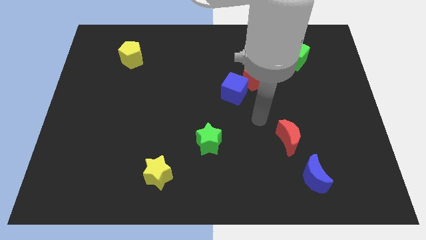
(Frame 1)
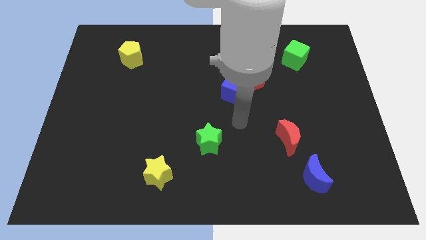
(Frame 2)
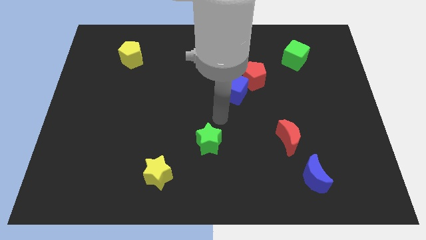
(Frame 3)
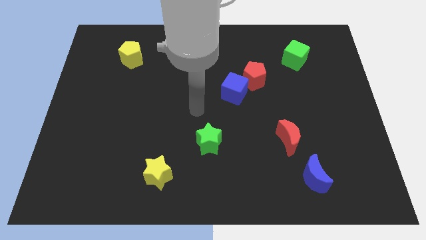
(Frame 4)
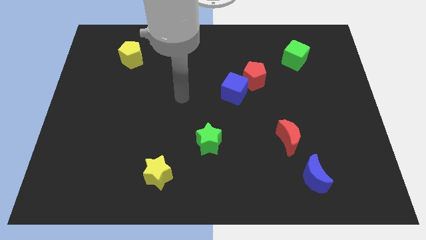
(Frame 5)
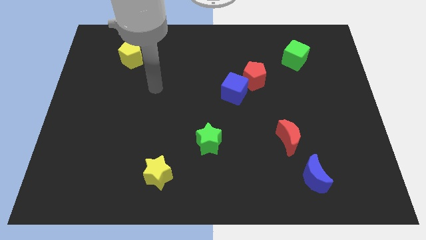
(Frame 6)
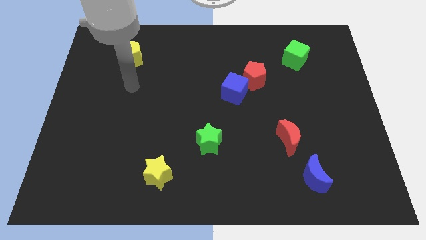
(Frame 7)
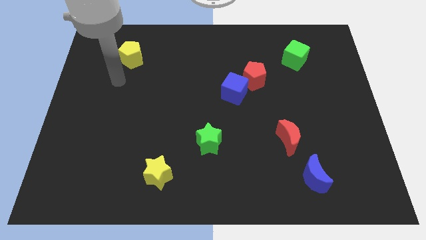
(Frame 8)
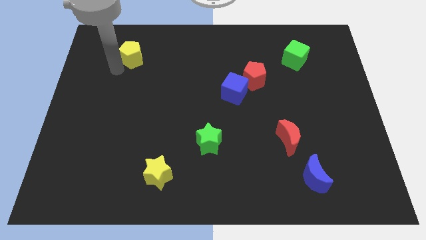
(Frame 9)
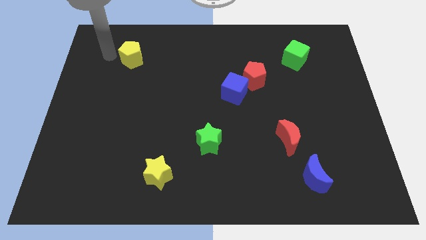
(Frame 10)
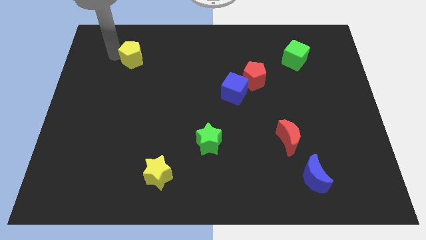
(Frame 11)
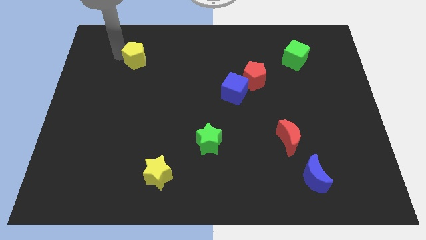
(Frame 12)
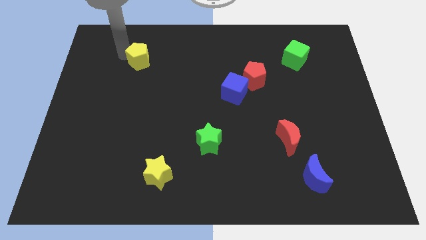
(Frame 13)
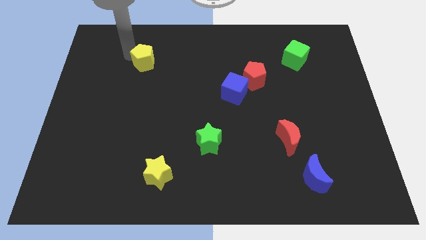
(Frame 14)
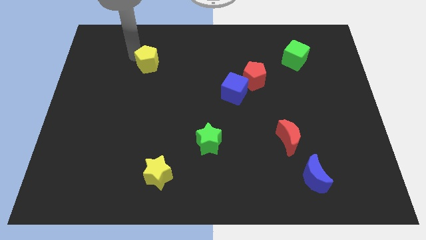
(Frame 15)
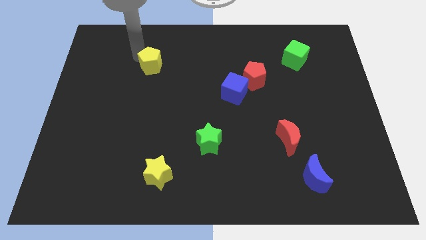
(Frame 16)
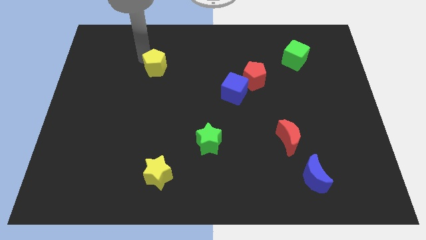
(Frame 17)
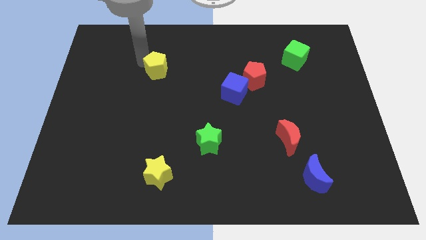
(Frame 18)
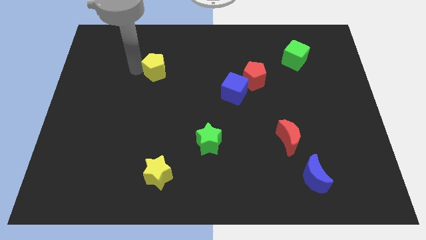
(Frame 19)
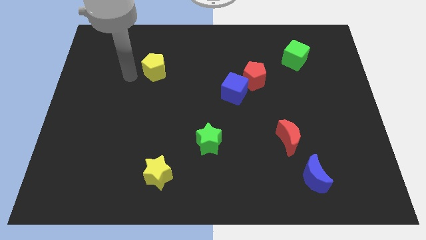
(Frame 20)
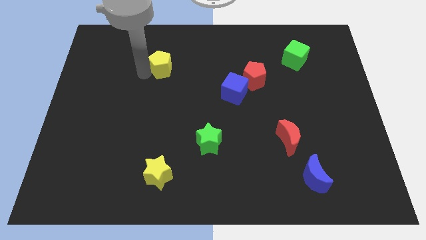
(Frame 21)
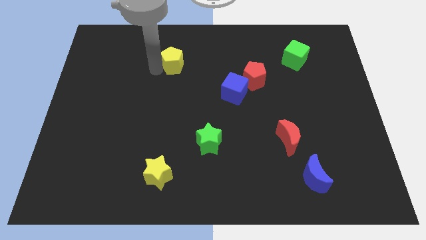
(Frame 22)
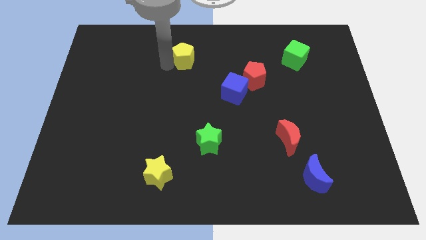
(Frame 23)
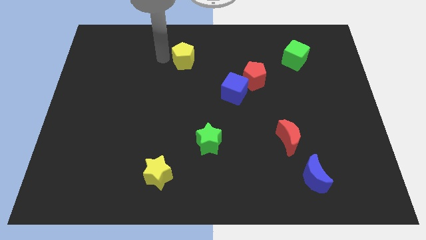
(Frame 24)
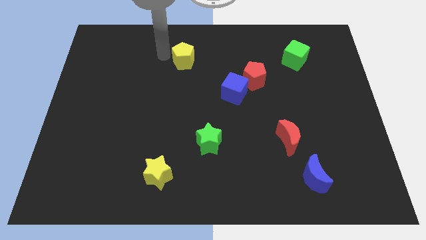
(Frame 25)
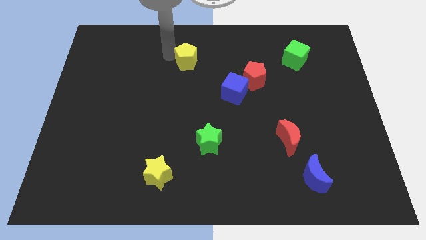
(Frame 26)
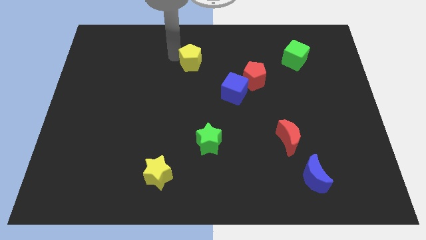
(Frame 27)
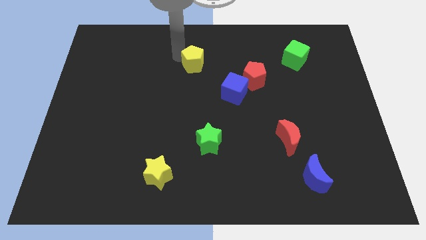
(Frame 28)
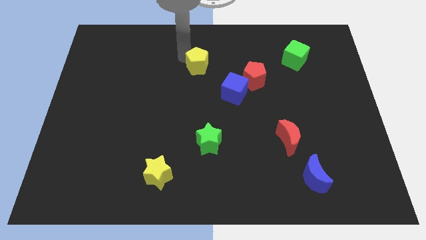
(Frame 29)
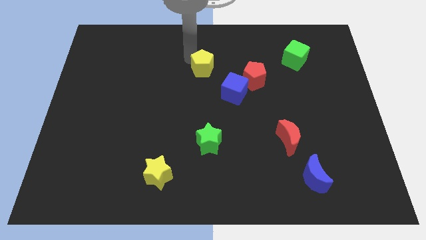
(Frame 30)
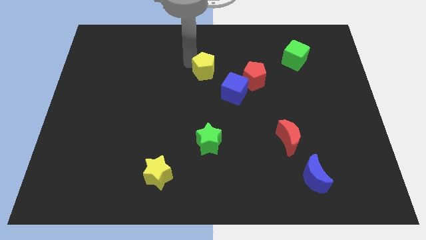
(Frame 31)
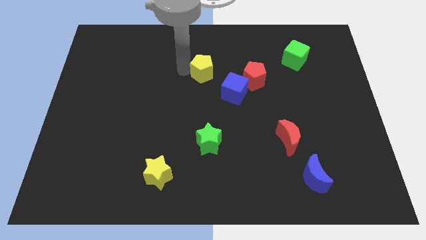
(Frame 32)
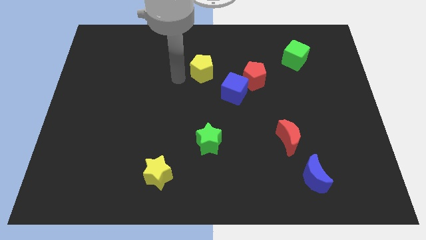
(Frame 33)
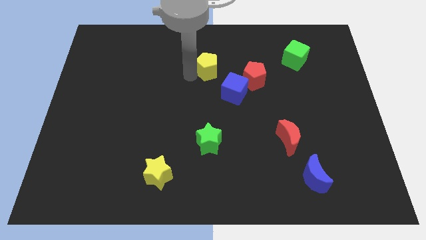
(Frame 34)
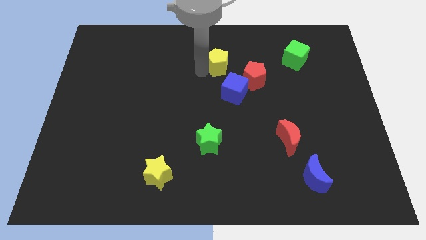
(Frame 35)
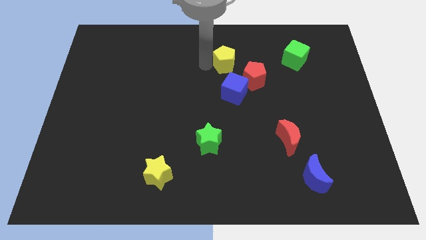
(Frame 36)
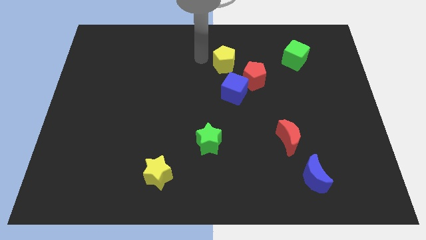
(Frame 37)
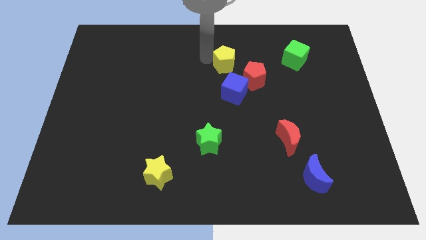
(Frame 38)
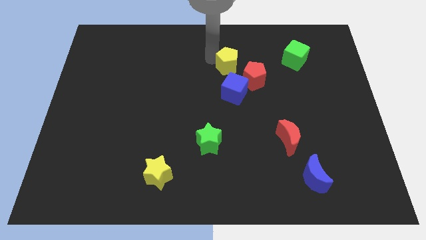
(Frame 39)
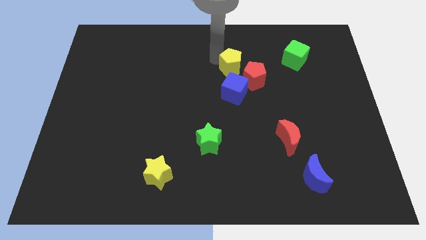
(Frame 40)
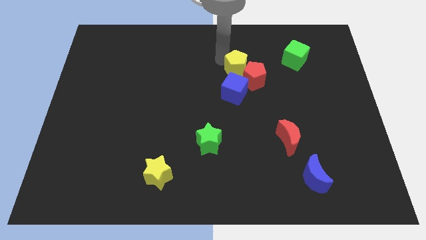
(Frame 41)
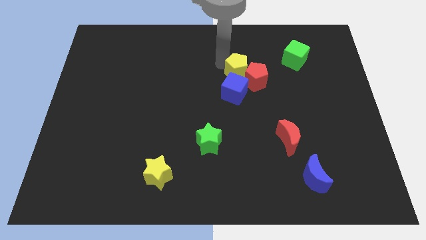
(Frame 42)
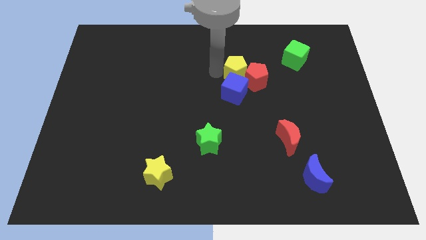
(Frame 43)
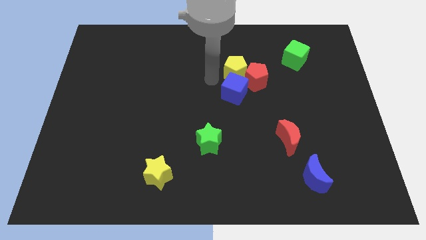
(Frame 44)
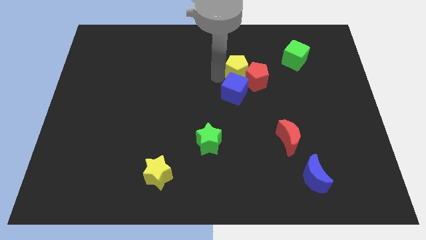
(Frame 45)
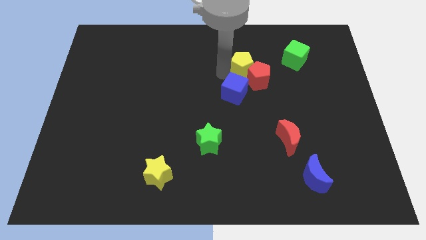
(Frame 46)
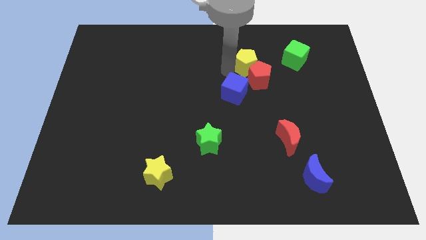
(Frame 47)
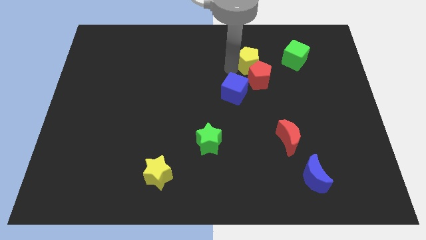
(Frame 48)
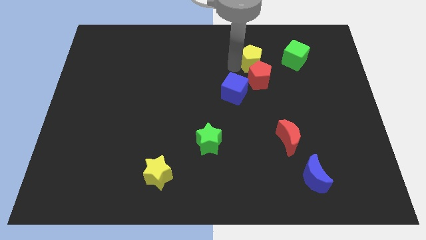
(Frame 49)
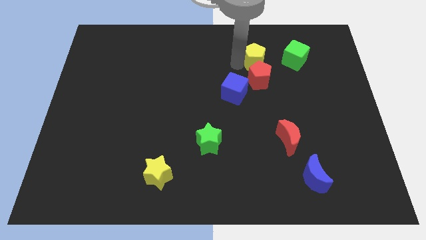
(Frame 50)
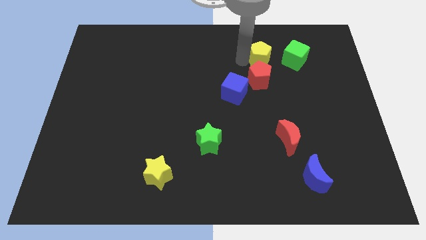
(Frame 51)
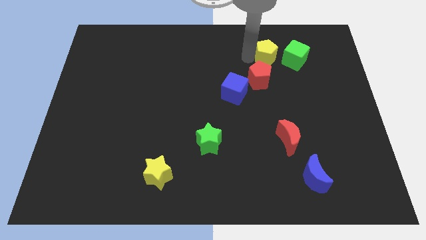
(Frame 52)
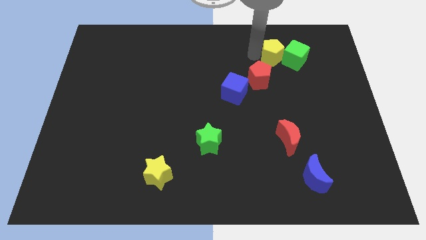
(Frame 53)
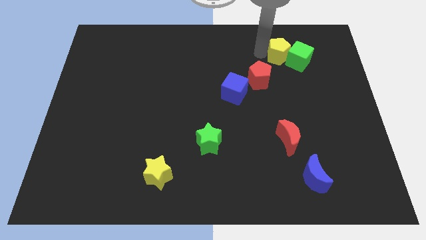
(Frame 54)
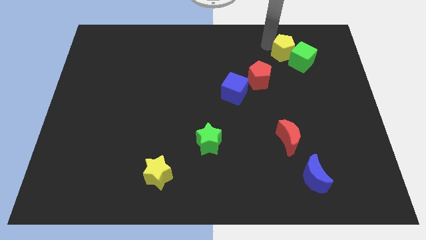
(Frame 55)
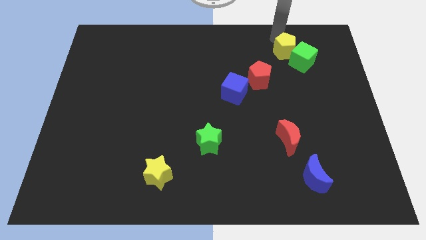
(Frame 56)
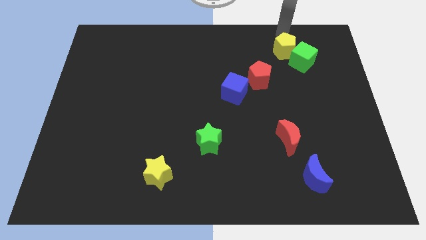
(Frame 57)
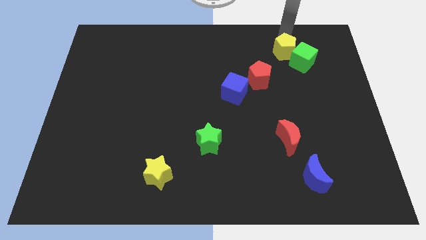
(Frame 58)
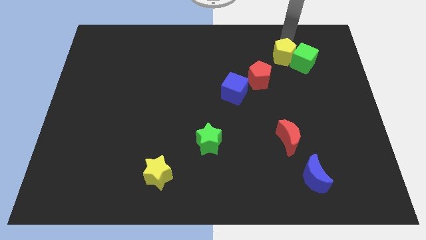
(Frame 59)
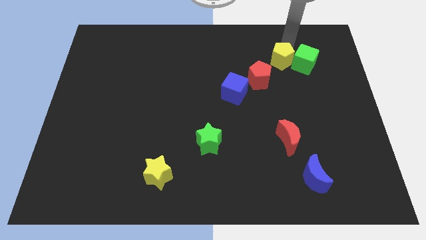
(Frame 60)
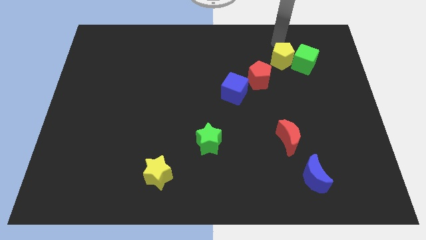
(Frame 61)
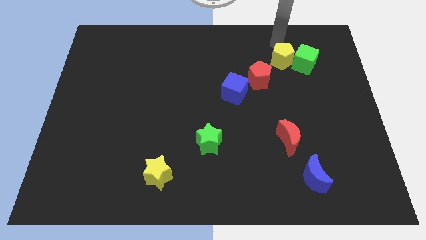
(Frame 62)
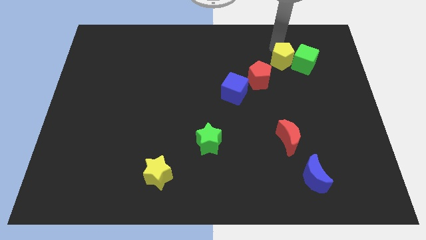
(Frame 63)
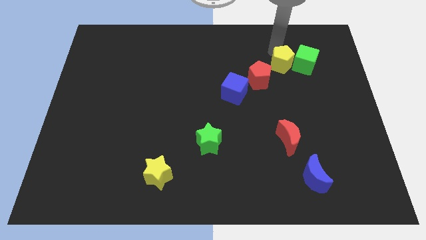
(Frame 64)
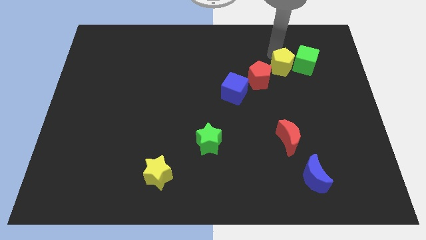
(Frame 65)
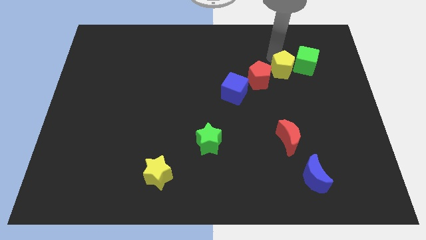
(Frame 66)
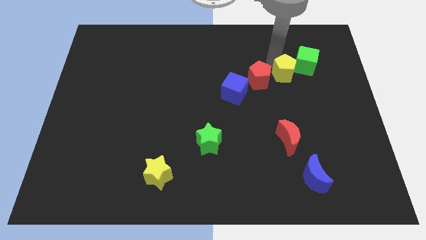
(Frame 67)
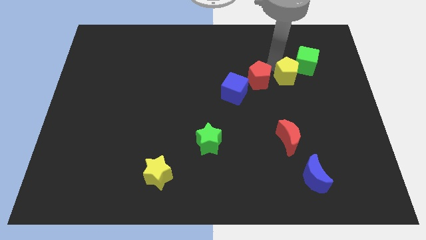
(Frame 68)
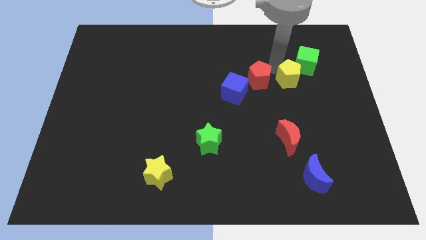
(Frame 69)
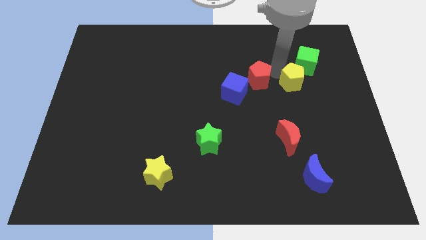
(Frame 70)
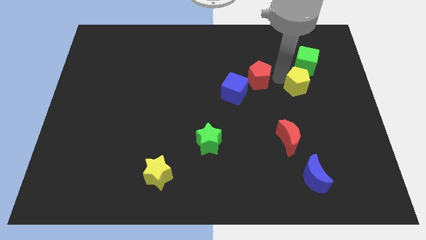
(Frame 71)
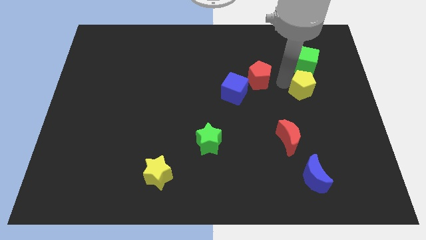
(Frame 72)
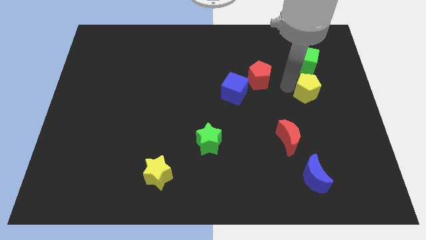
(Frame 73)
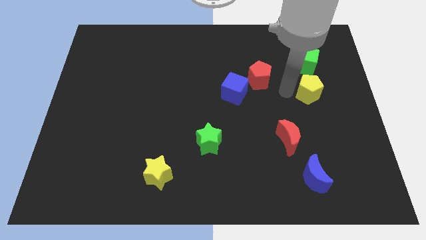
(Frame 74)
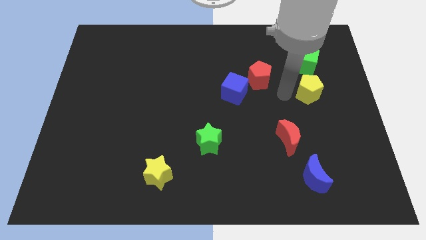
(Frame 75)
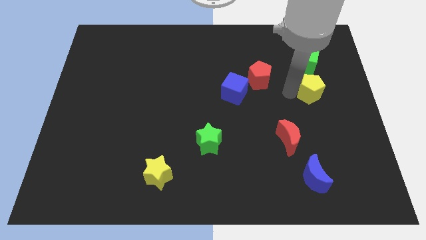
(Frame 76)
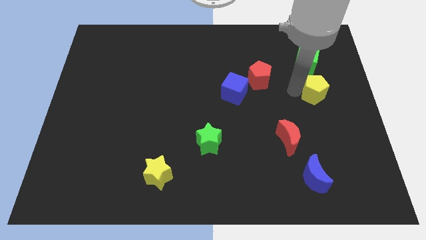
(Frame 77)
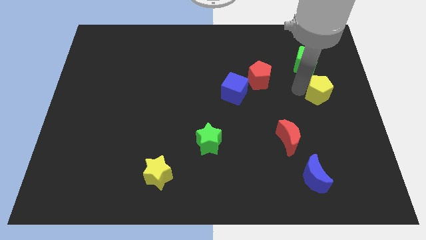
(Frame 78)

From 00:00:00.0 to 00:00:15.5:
put the yellow pentagon to the right side of the board
